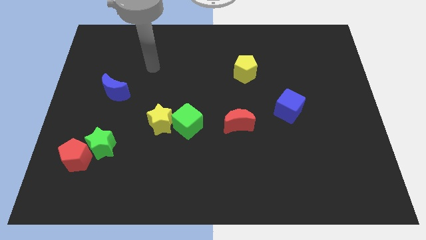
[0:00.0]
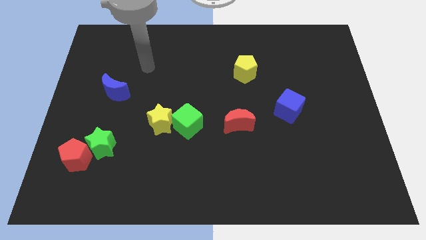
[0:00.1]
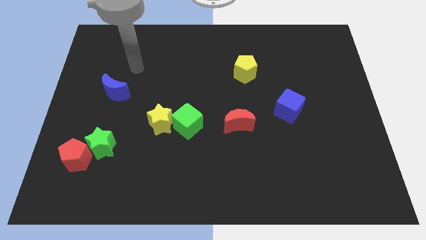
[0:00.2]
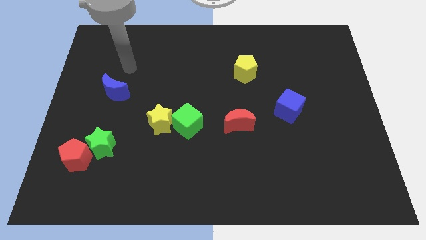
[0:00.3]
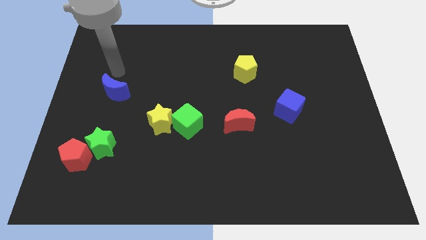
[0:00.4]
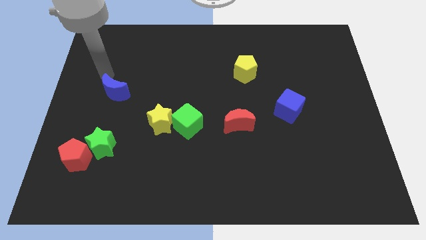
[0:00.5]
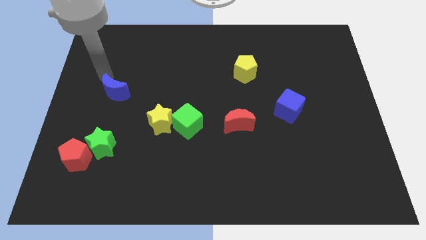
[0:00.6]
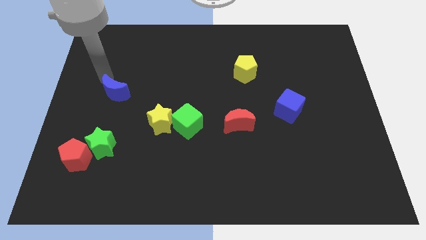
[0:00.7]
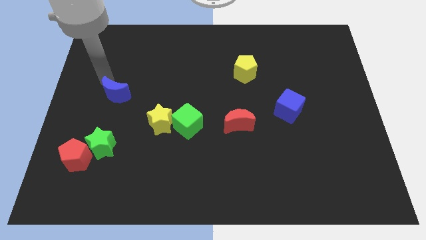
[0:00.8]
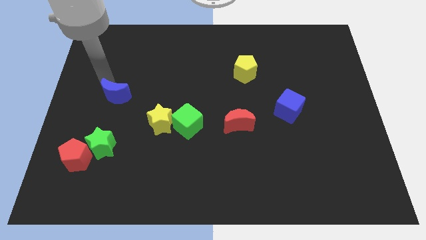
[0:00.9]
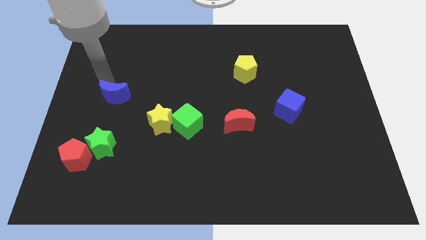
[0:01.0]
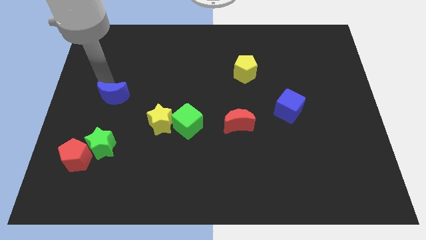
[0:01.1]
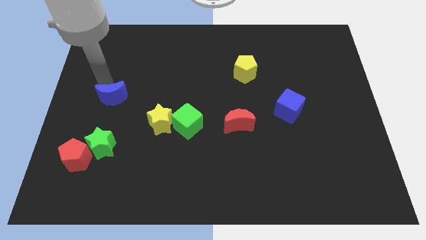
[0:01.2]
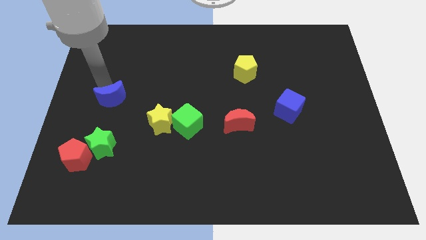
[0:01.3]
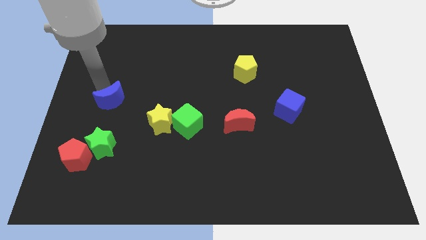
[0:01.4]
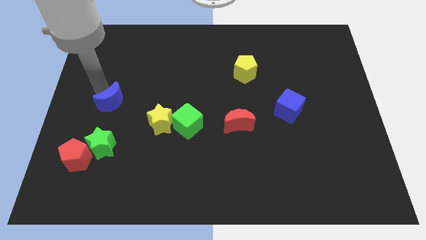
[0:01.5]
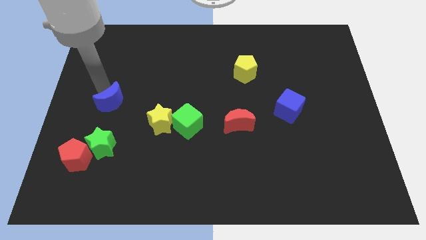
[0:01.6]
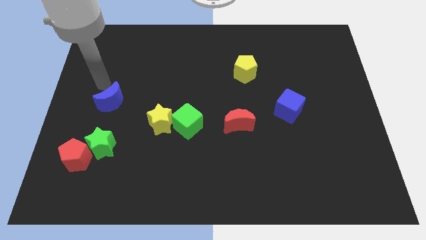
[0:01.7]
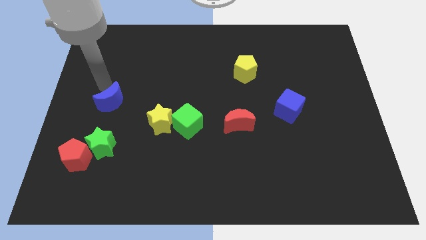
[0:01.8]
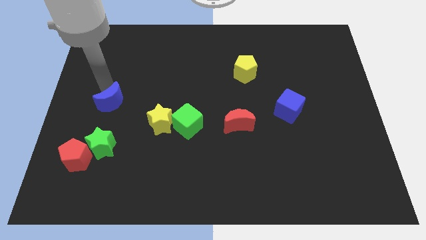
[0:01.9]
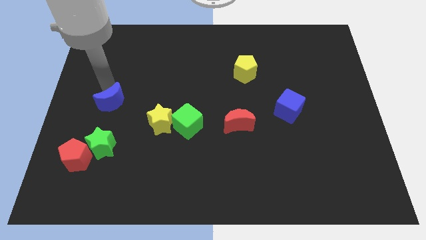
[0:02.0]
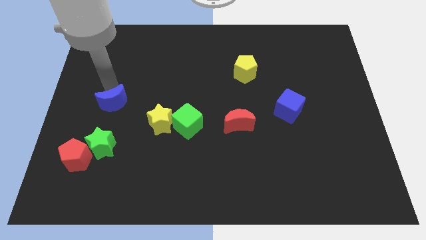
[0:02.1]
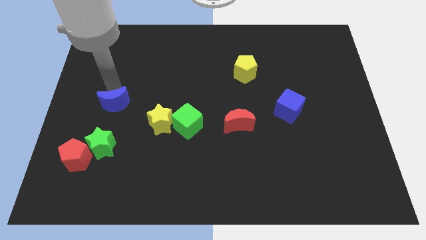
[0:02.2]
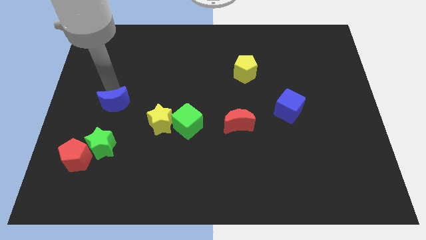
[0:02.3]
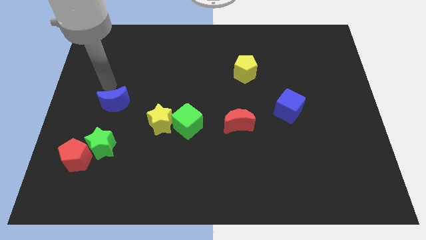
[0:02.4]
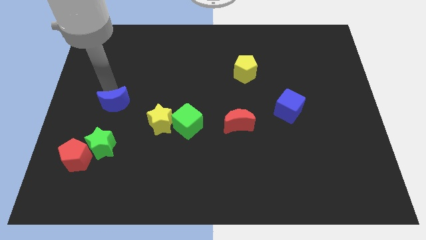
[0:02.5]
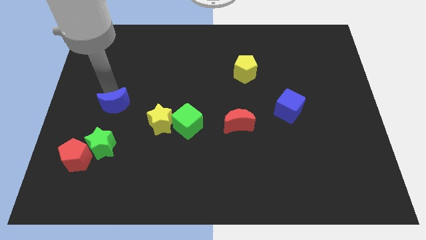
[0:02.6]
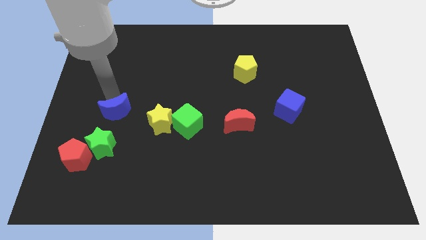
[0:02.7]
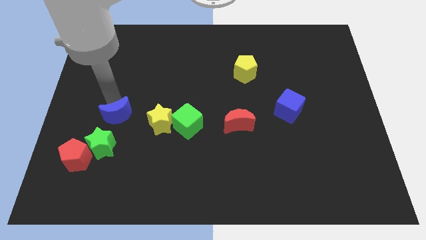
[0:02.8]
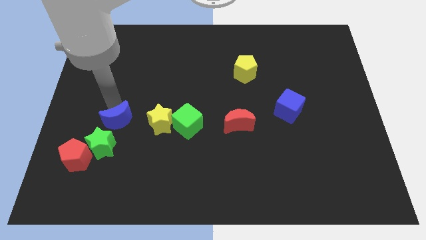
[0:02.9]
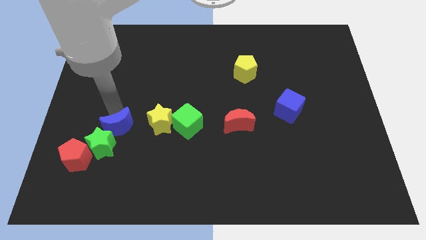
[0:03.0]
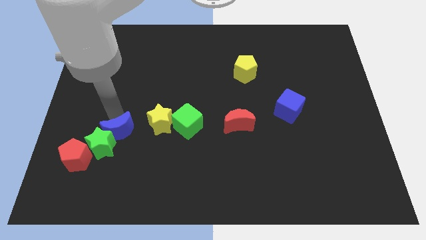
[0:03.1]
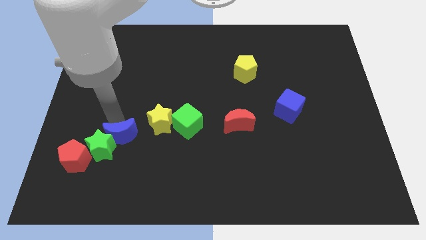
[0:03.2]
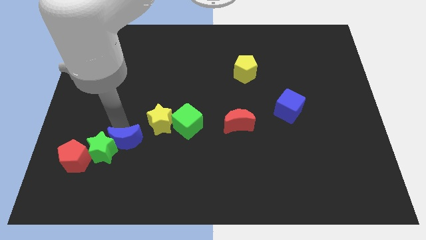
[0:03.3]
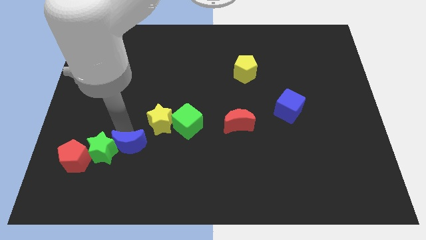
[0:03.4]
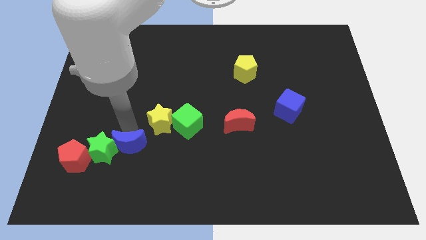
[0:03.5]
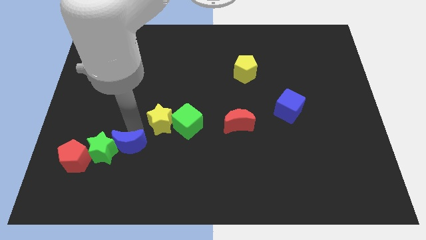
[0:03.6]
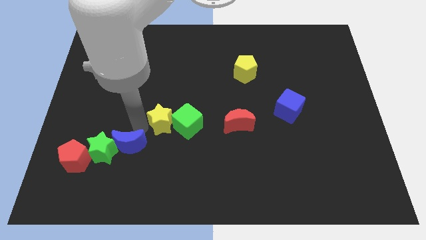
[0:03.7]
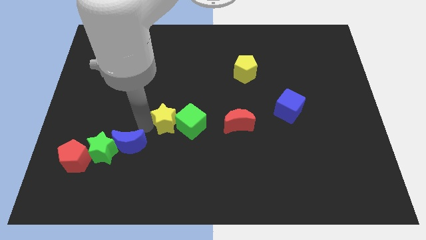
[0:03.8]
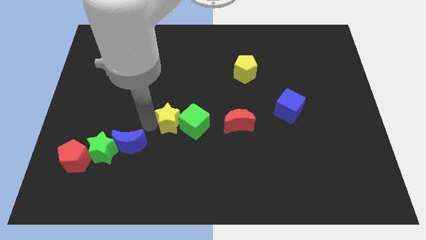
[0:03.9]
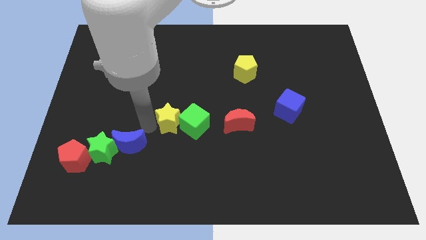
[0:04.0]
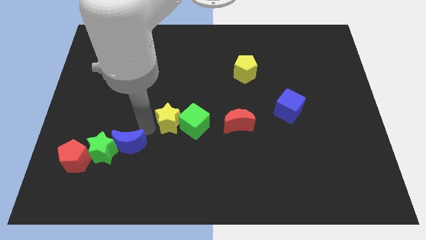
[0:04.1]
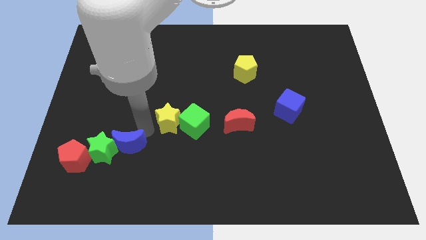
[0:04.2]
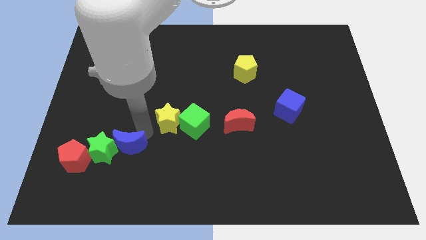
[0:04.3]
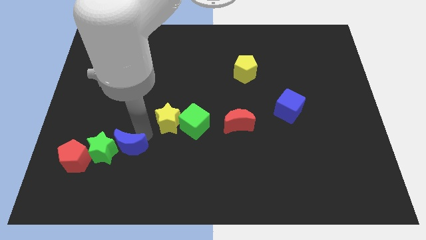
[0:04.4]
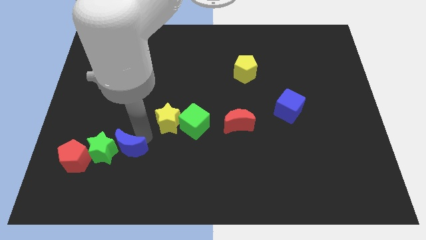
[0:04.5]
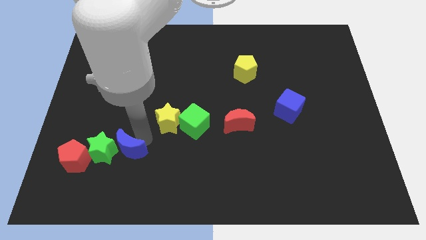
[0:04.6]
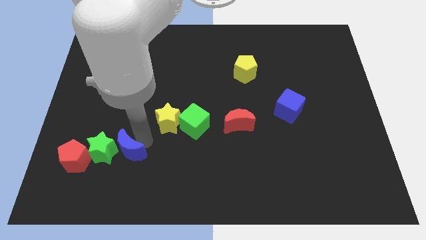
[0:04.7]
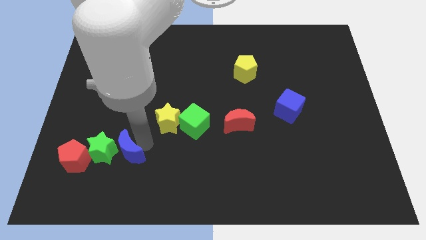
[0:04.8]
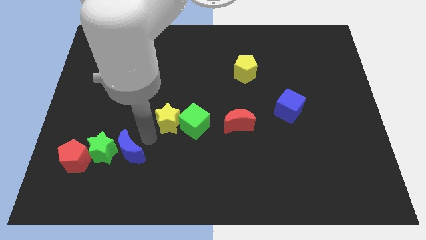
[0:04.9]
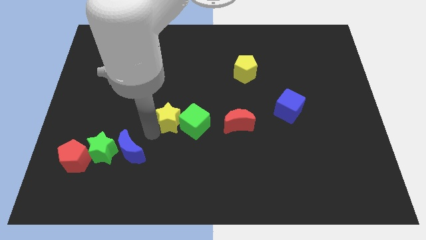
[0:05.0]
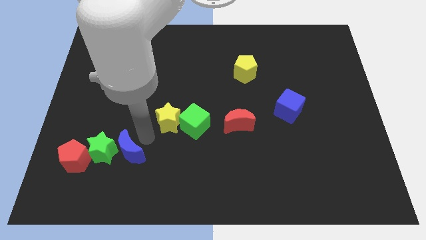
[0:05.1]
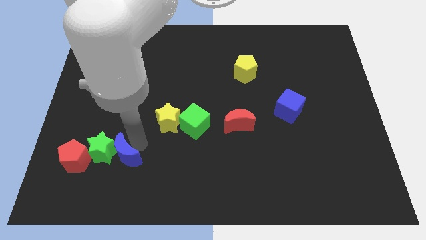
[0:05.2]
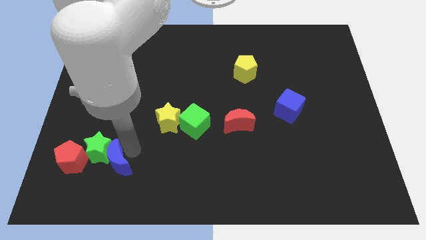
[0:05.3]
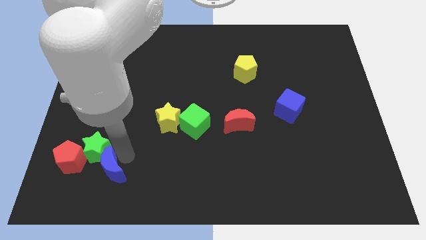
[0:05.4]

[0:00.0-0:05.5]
push the blue moon to the bottom right of the red pentagon

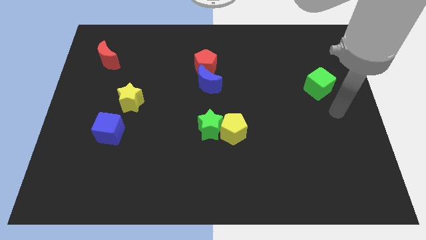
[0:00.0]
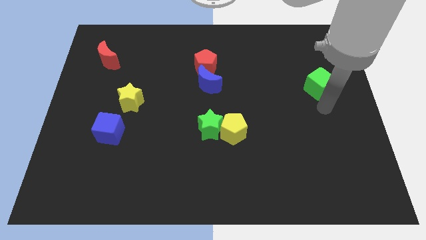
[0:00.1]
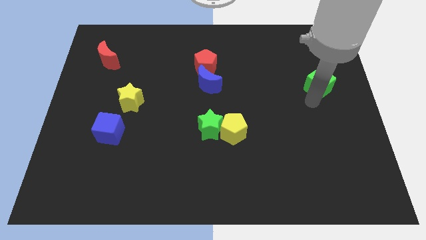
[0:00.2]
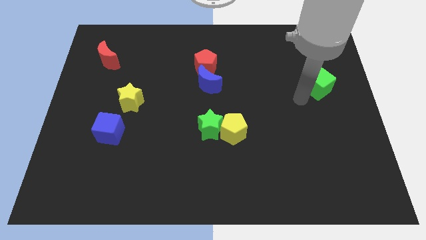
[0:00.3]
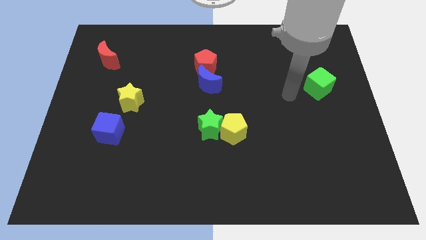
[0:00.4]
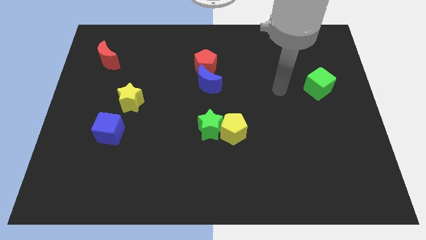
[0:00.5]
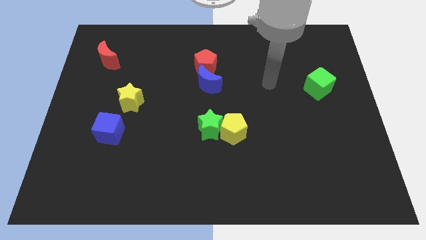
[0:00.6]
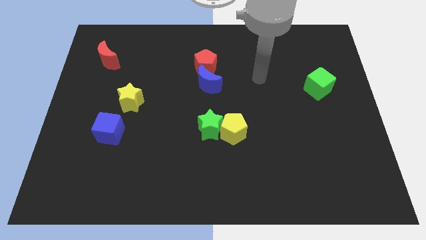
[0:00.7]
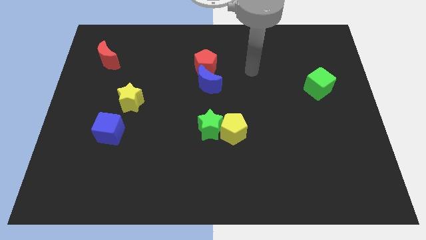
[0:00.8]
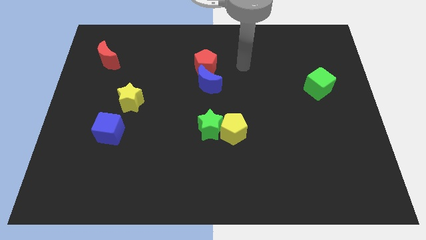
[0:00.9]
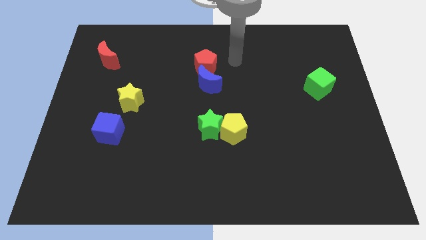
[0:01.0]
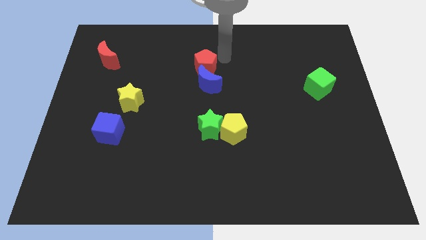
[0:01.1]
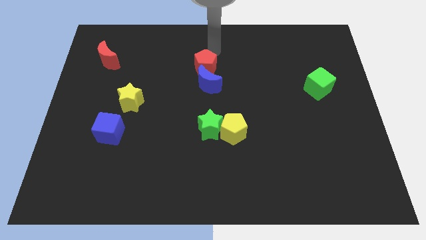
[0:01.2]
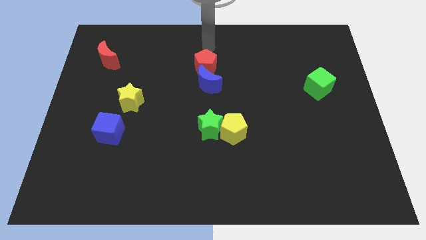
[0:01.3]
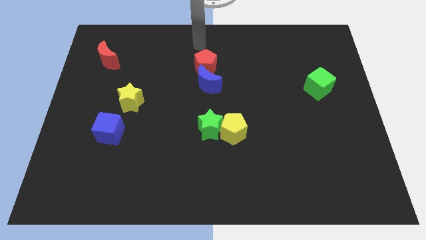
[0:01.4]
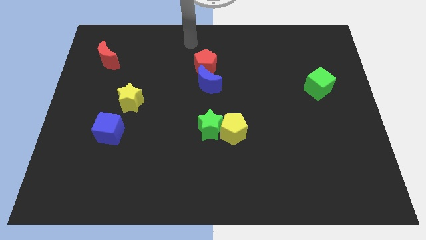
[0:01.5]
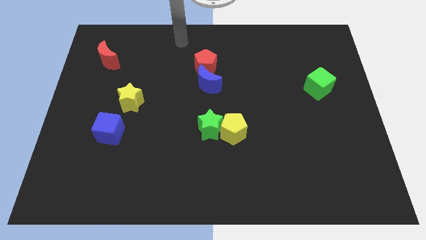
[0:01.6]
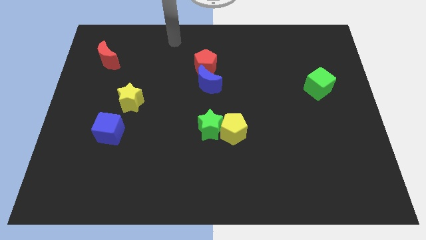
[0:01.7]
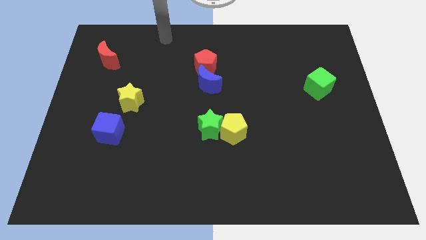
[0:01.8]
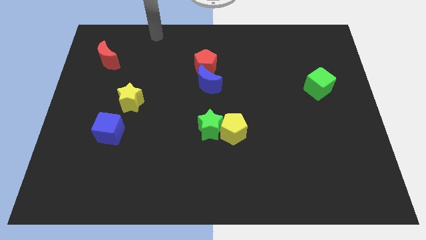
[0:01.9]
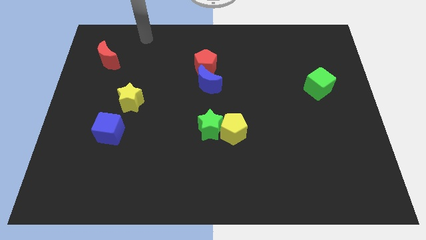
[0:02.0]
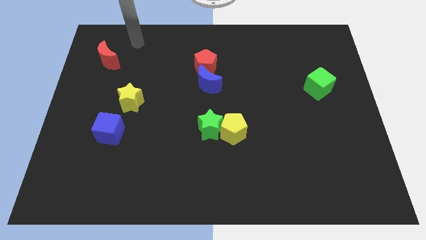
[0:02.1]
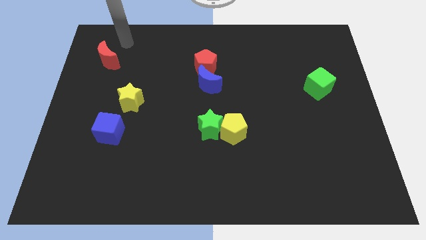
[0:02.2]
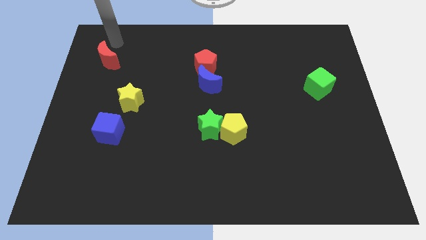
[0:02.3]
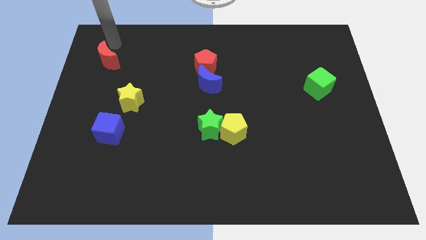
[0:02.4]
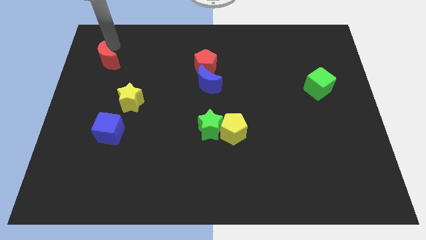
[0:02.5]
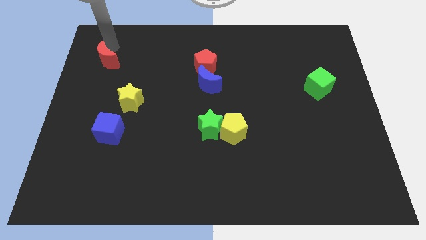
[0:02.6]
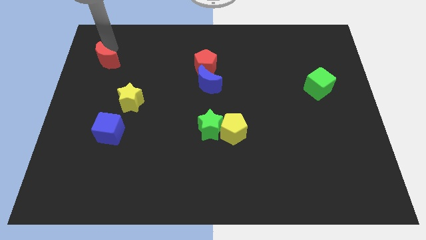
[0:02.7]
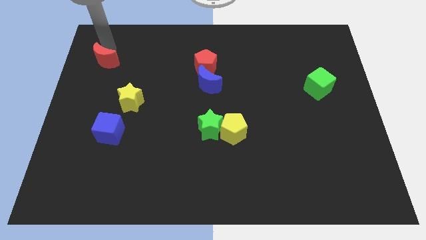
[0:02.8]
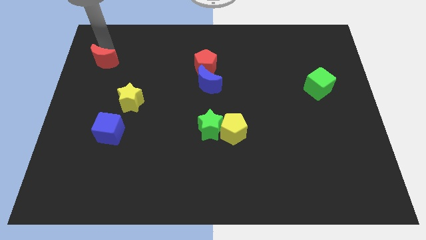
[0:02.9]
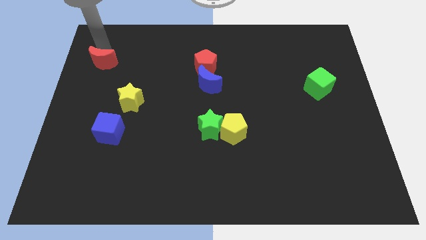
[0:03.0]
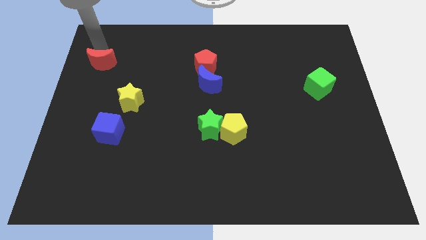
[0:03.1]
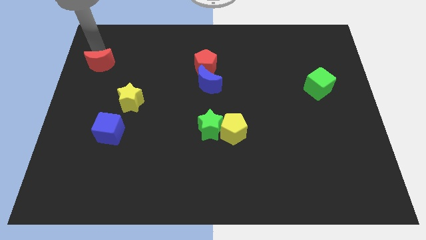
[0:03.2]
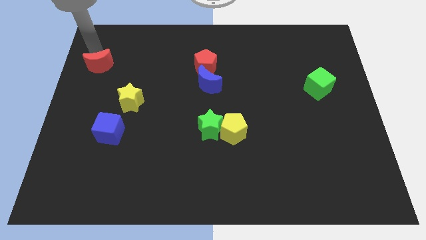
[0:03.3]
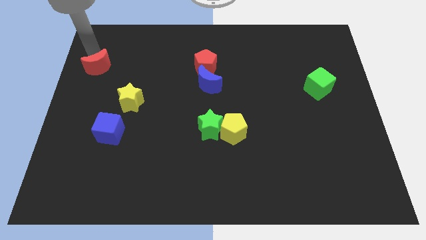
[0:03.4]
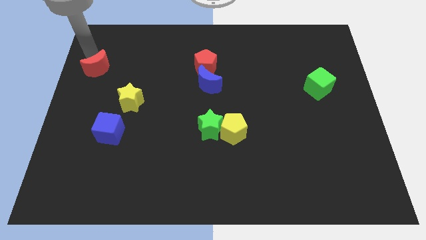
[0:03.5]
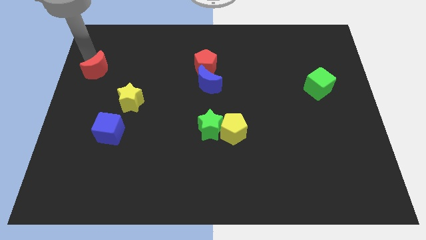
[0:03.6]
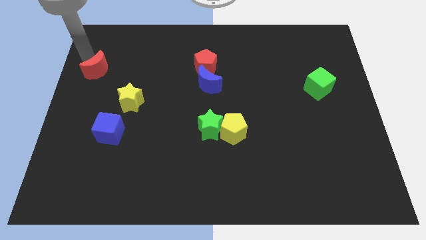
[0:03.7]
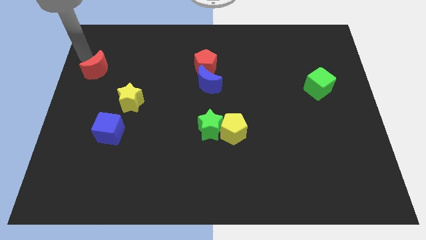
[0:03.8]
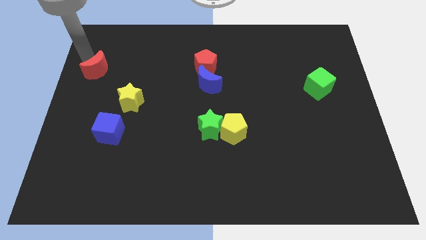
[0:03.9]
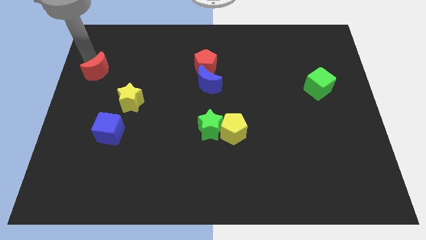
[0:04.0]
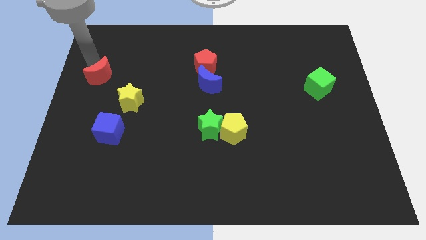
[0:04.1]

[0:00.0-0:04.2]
move the red moon to the top left of the yellow star
